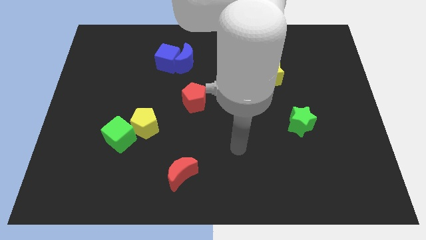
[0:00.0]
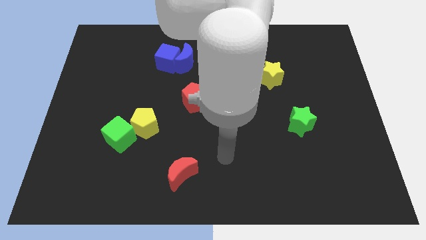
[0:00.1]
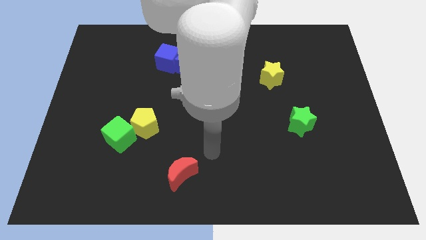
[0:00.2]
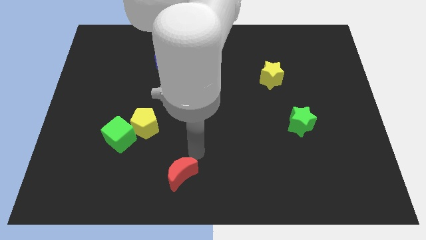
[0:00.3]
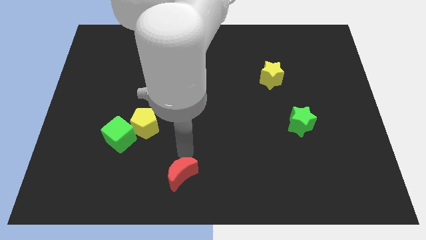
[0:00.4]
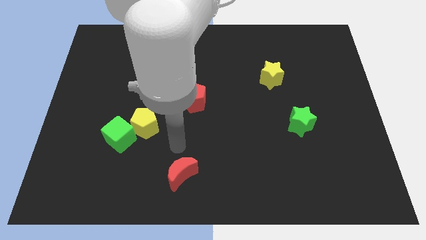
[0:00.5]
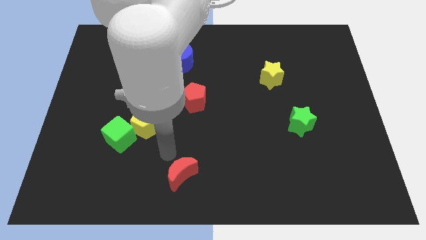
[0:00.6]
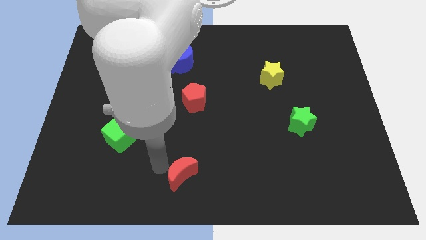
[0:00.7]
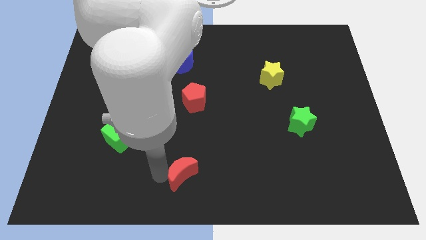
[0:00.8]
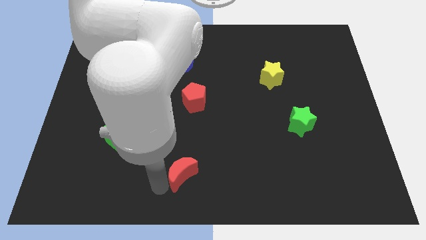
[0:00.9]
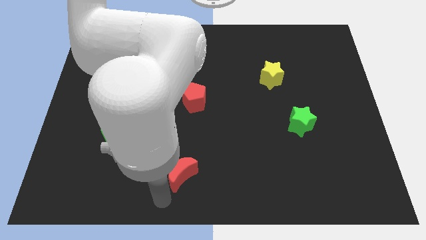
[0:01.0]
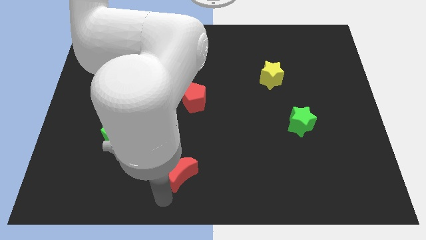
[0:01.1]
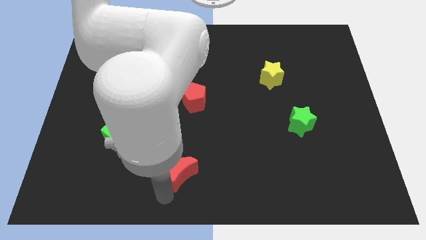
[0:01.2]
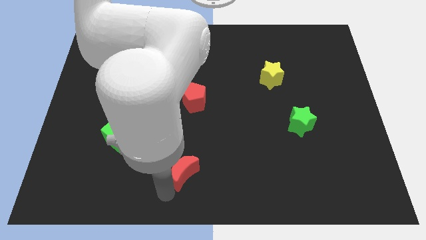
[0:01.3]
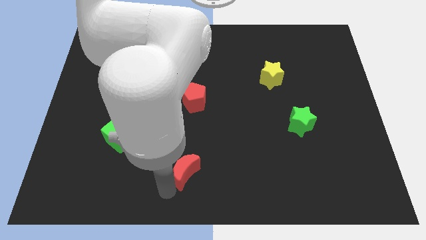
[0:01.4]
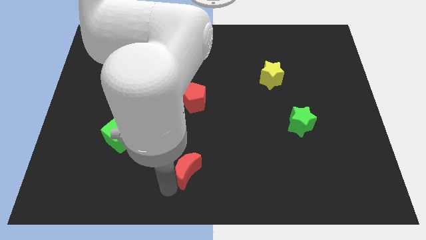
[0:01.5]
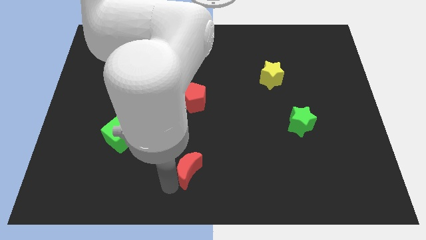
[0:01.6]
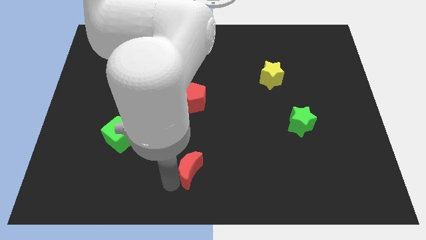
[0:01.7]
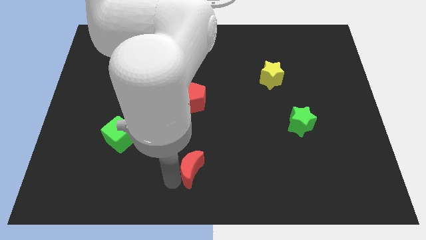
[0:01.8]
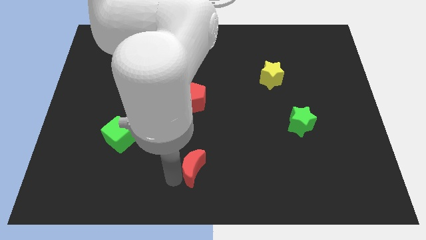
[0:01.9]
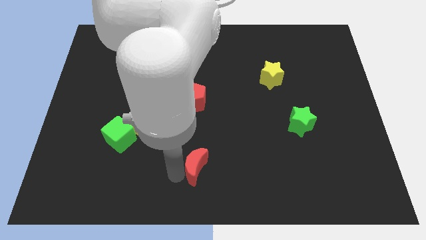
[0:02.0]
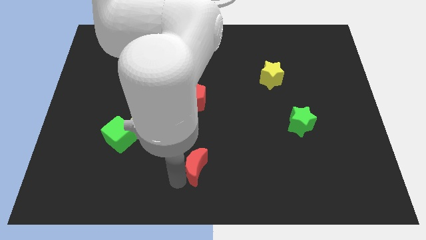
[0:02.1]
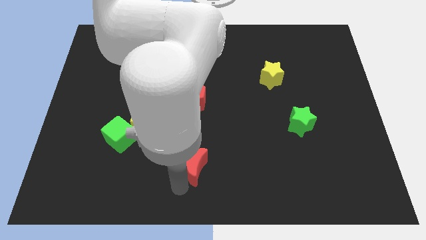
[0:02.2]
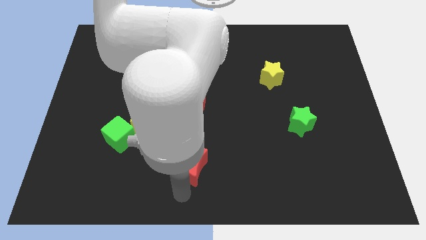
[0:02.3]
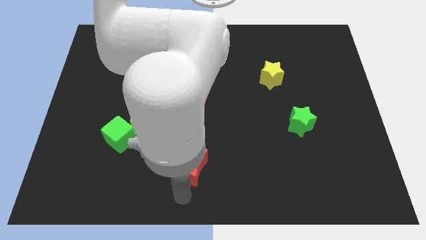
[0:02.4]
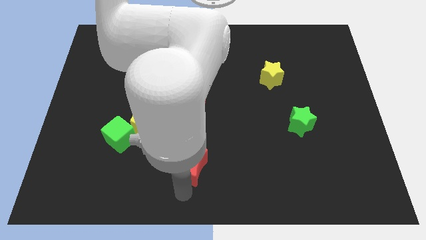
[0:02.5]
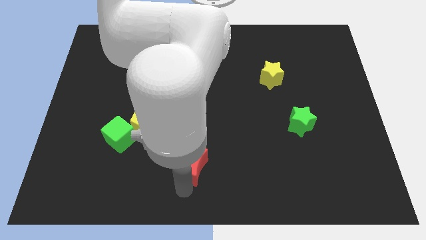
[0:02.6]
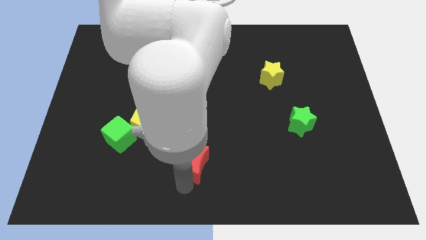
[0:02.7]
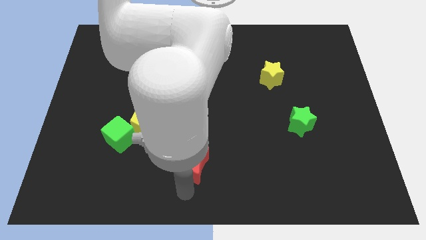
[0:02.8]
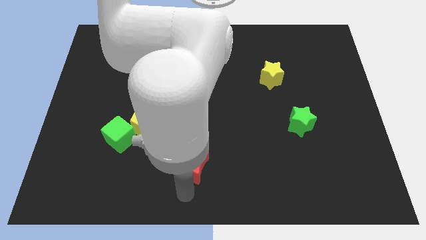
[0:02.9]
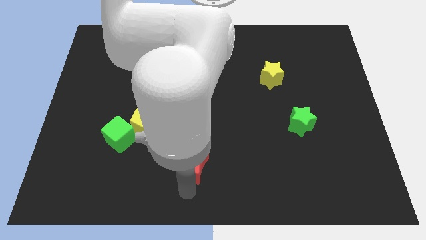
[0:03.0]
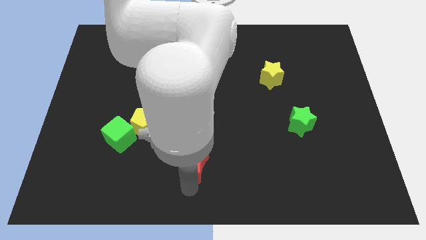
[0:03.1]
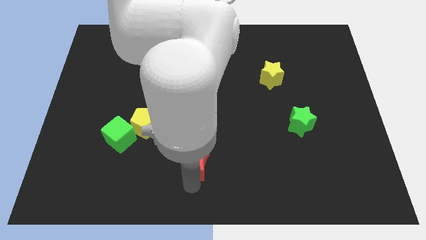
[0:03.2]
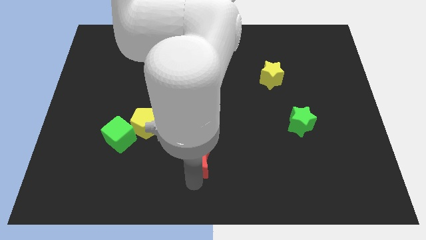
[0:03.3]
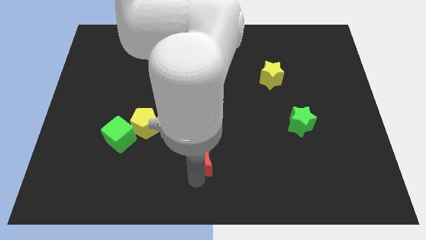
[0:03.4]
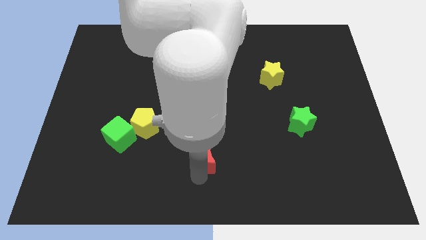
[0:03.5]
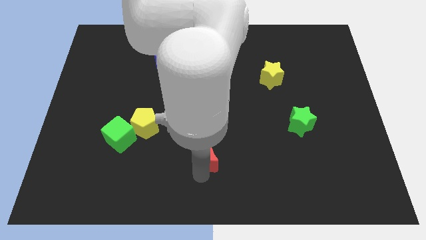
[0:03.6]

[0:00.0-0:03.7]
slightly move the red moon up and then right

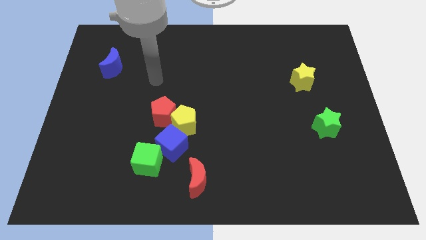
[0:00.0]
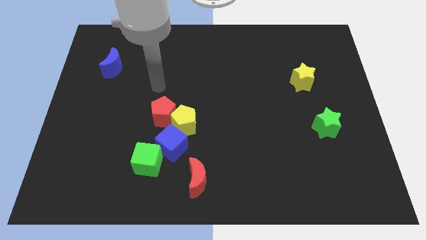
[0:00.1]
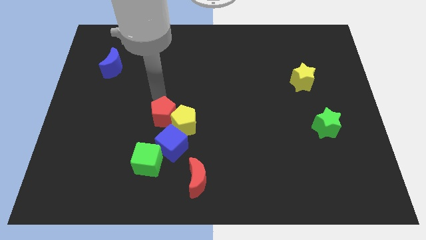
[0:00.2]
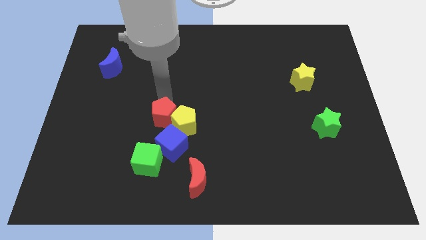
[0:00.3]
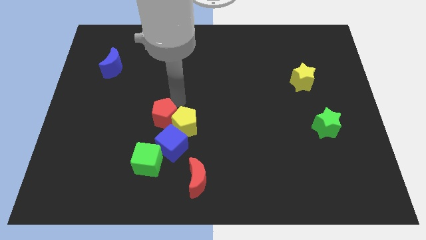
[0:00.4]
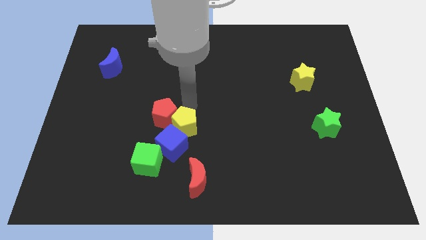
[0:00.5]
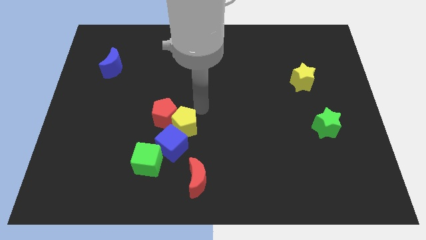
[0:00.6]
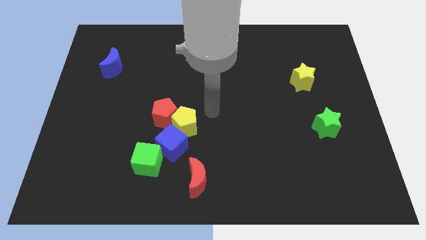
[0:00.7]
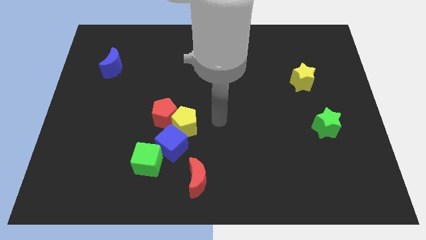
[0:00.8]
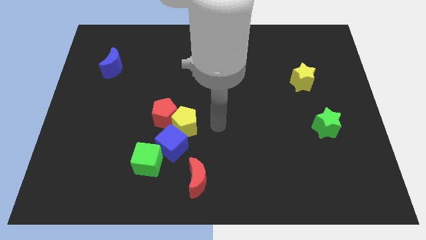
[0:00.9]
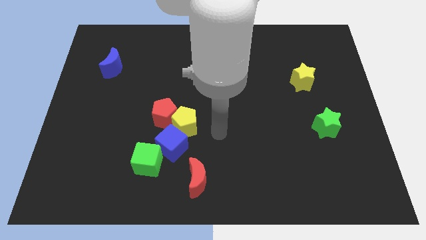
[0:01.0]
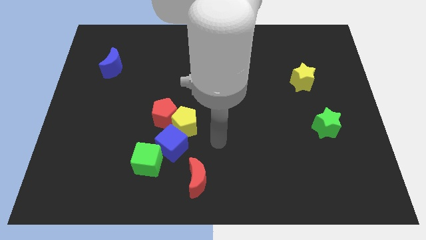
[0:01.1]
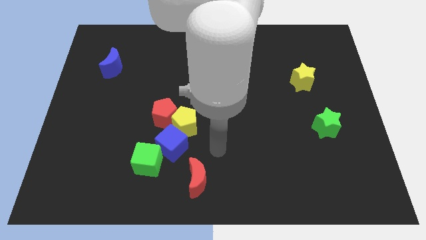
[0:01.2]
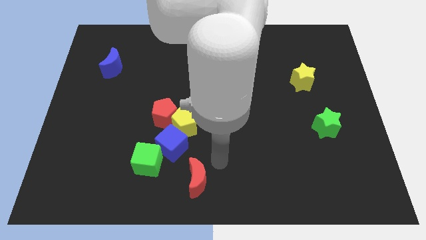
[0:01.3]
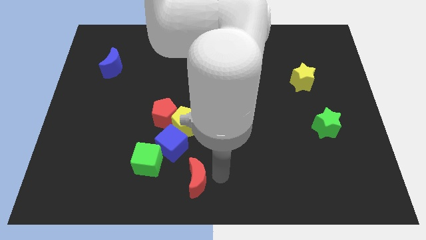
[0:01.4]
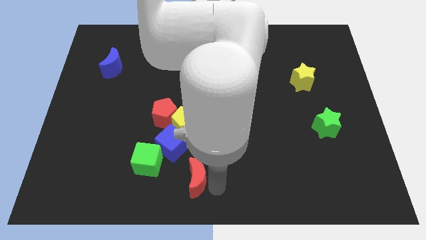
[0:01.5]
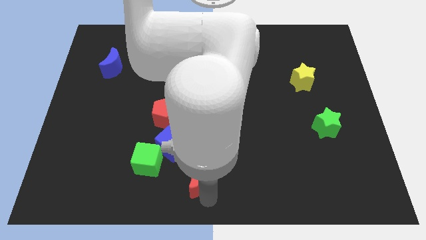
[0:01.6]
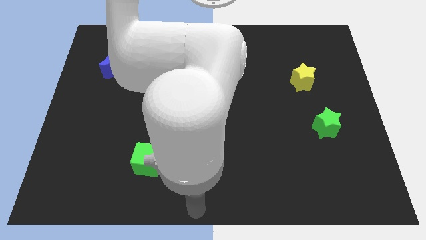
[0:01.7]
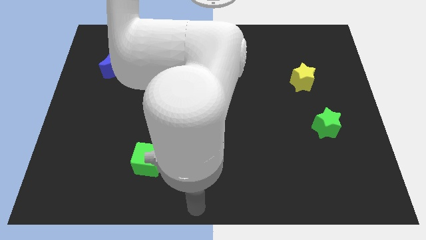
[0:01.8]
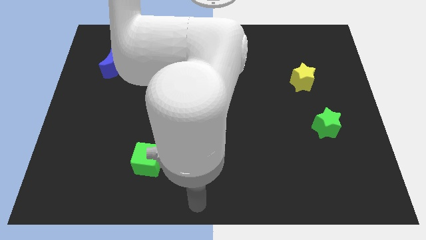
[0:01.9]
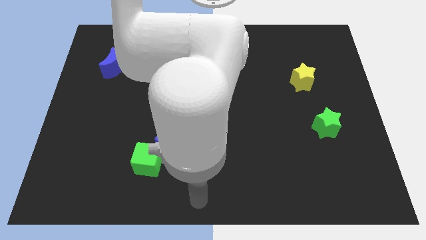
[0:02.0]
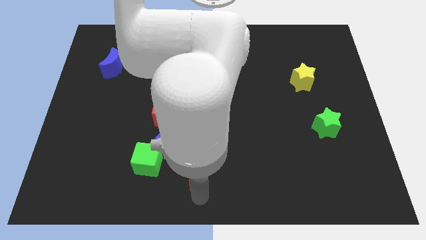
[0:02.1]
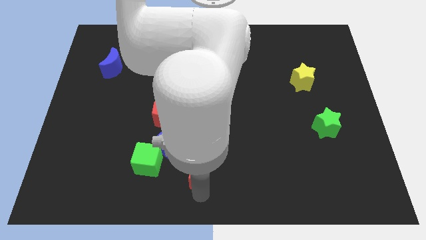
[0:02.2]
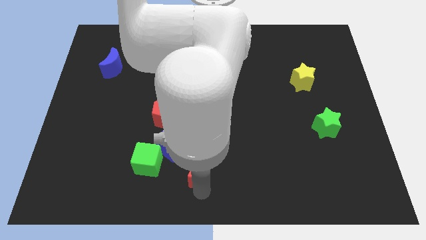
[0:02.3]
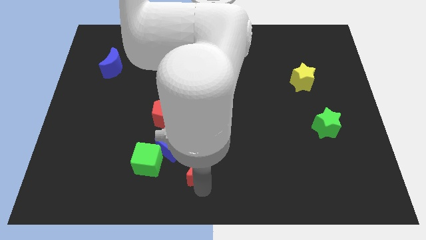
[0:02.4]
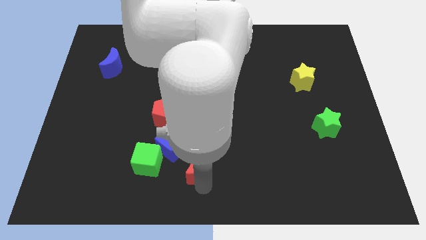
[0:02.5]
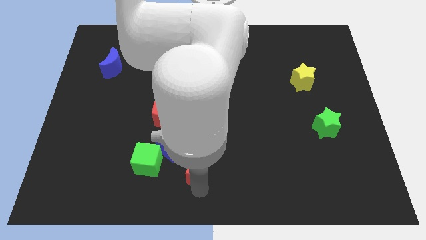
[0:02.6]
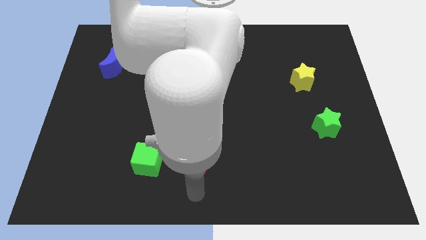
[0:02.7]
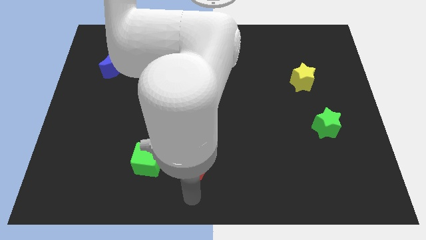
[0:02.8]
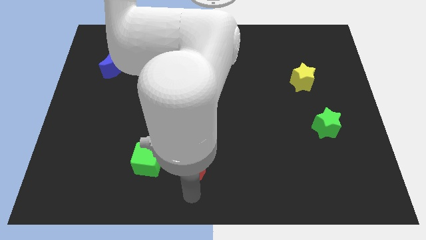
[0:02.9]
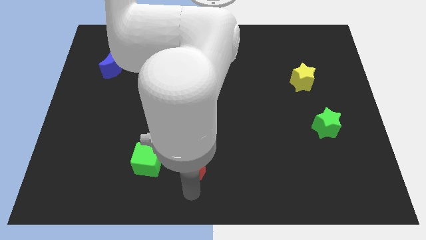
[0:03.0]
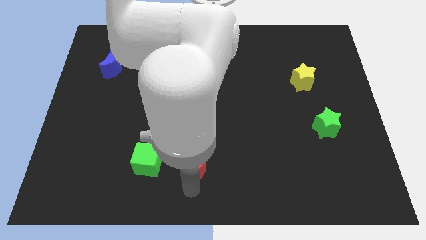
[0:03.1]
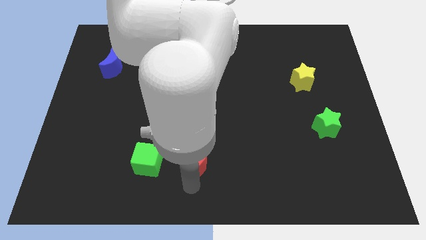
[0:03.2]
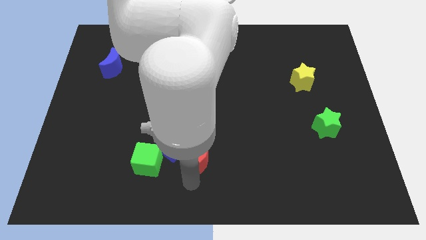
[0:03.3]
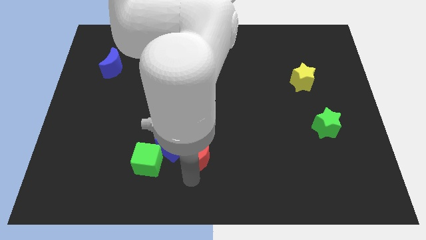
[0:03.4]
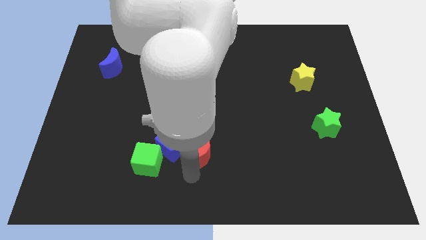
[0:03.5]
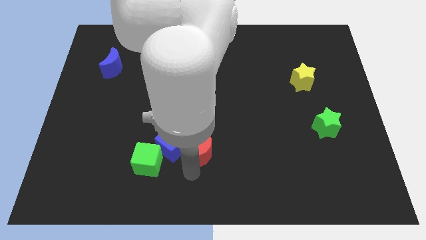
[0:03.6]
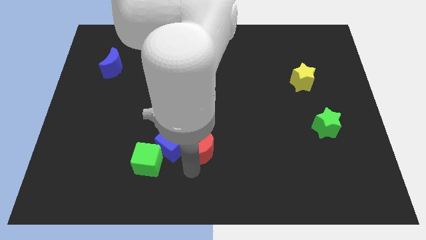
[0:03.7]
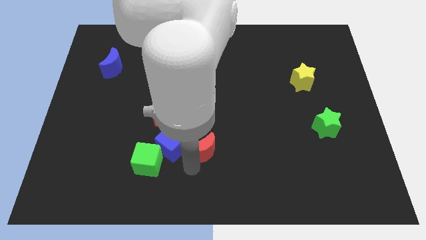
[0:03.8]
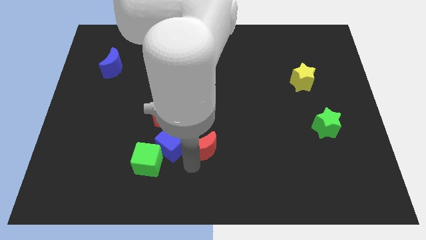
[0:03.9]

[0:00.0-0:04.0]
push the red moon upwards a bit

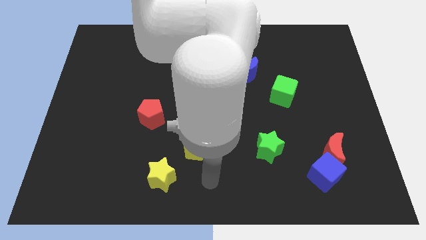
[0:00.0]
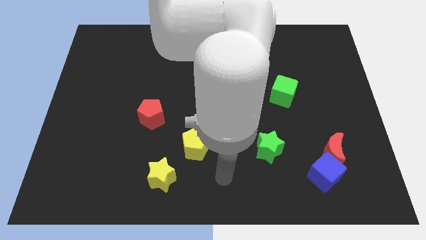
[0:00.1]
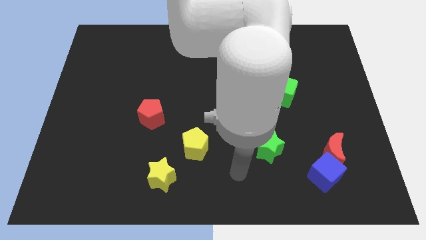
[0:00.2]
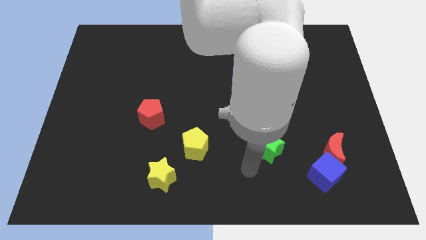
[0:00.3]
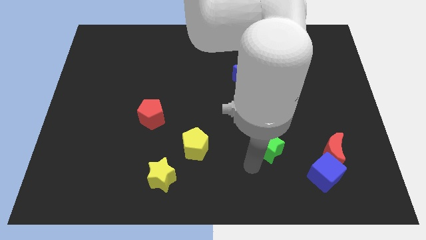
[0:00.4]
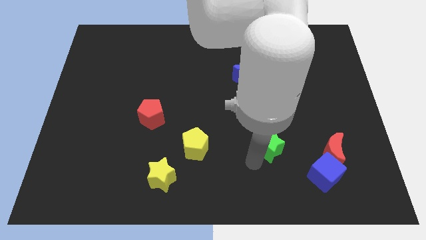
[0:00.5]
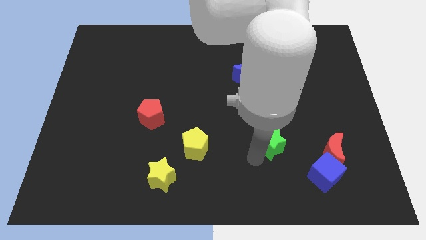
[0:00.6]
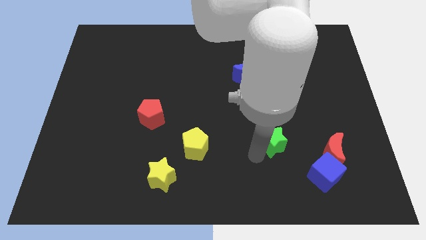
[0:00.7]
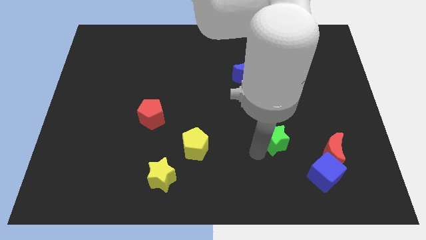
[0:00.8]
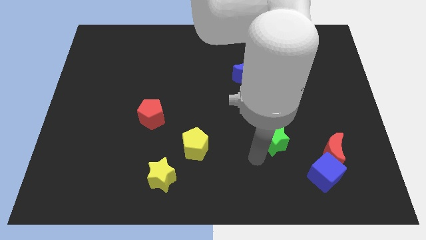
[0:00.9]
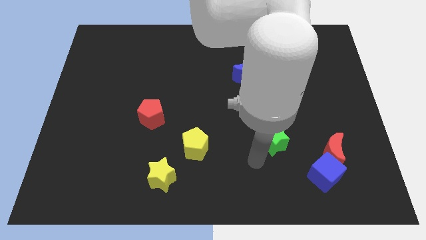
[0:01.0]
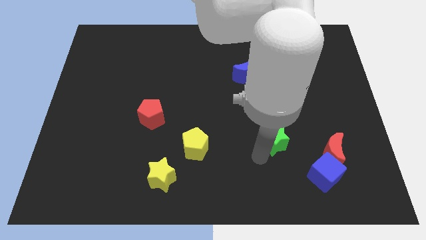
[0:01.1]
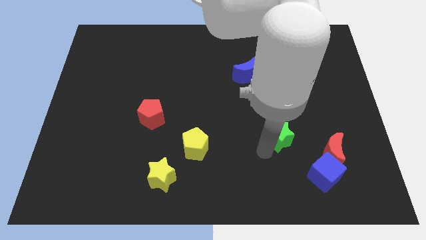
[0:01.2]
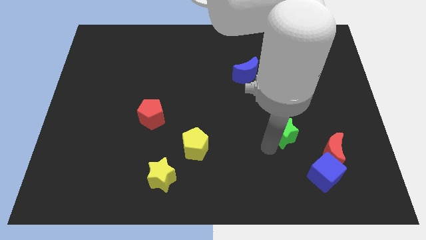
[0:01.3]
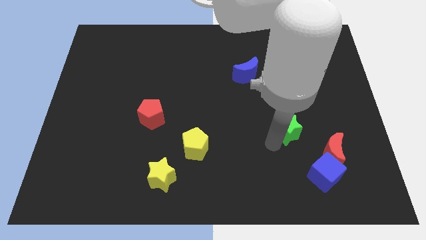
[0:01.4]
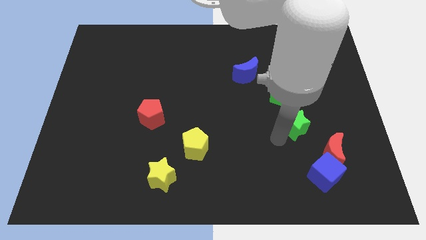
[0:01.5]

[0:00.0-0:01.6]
slightly push the green star upwards and then right
